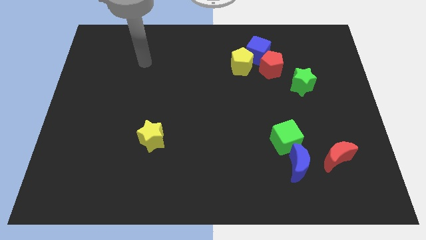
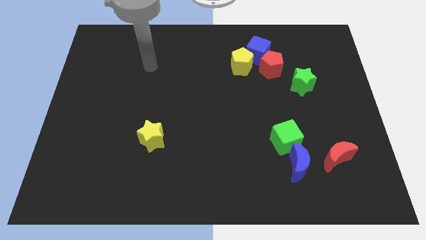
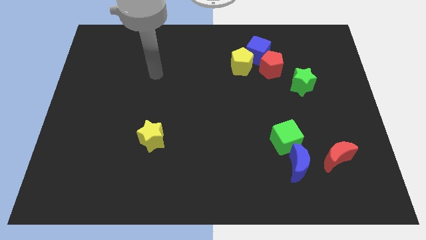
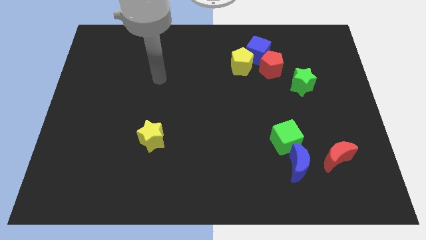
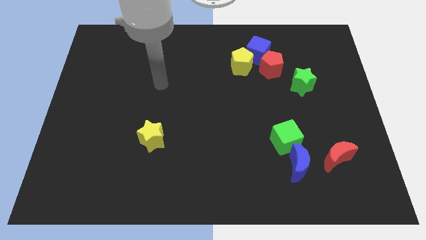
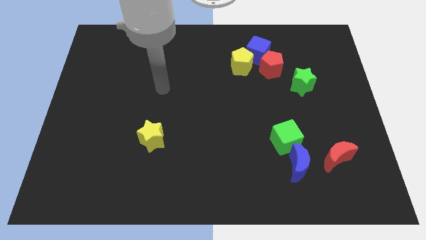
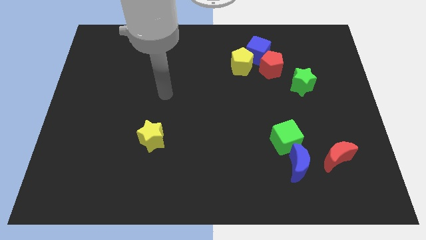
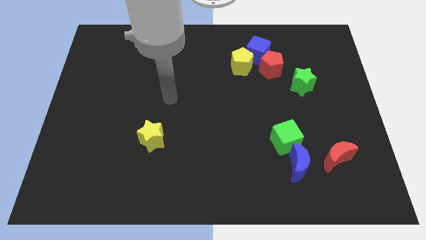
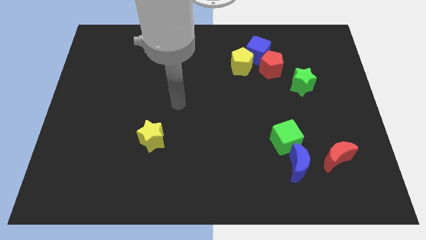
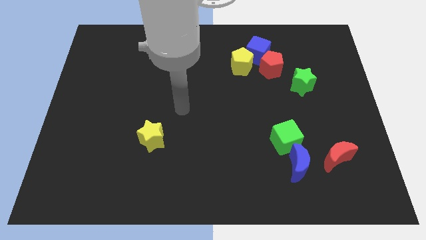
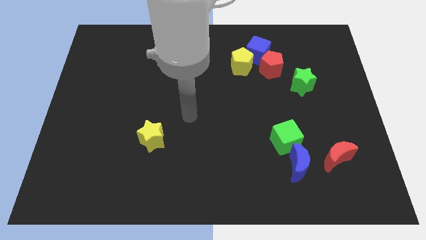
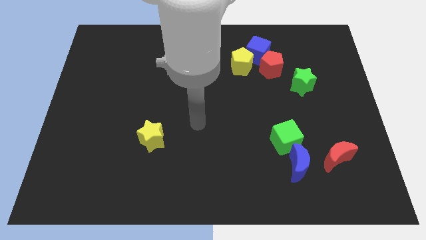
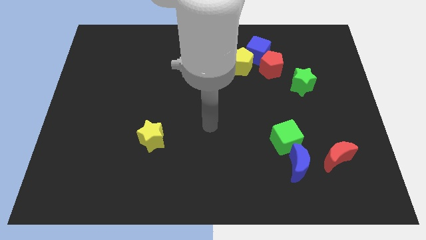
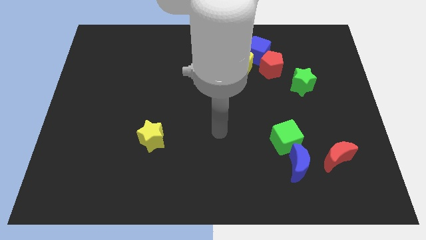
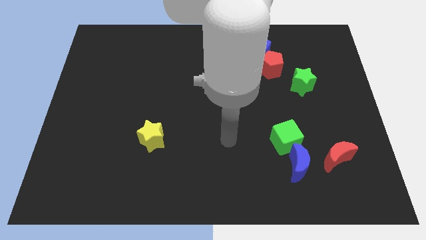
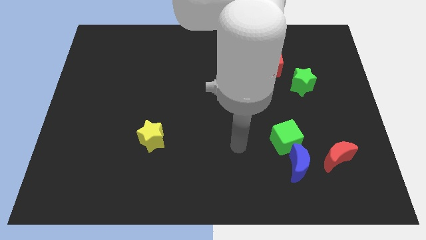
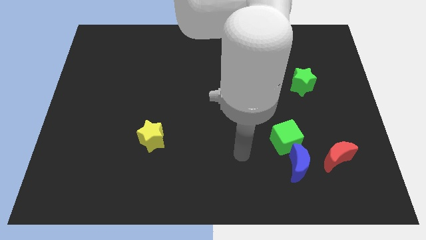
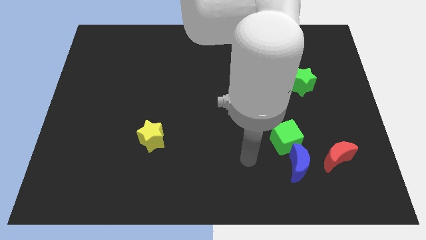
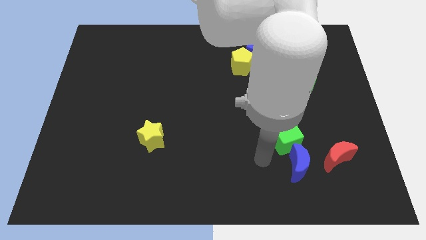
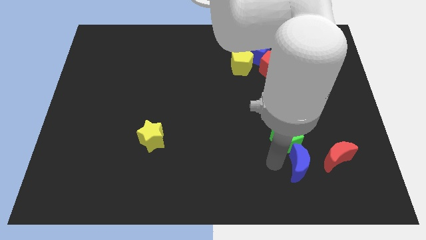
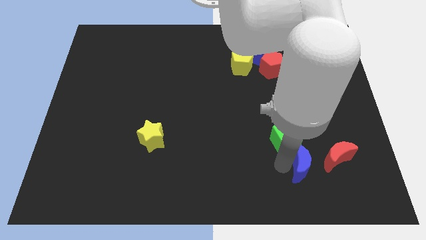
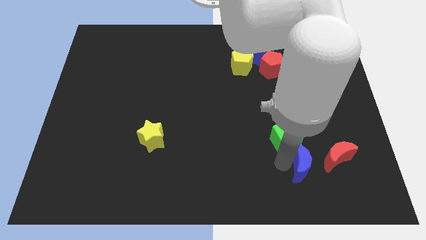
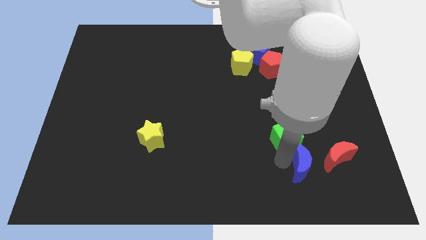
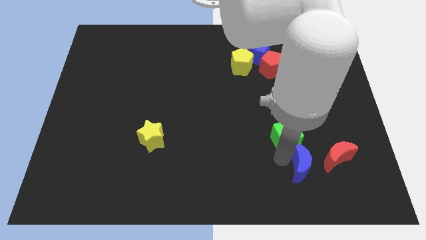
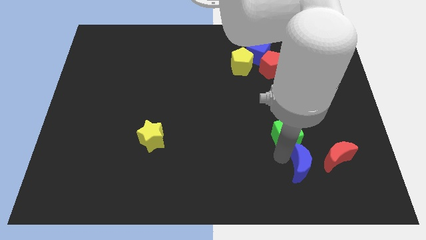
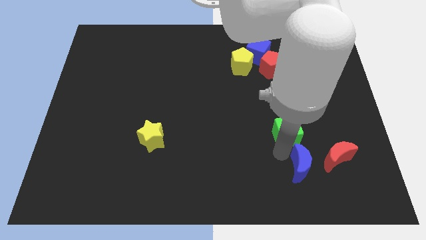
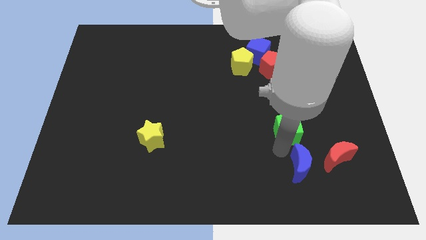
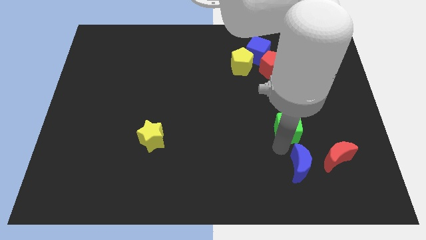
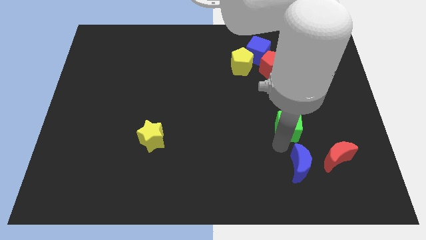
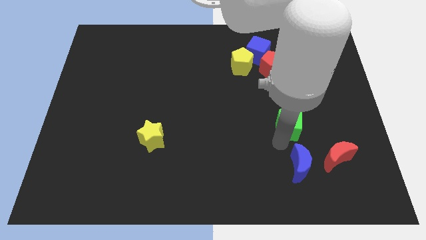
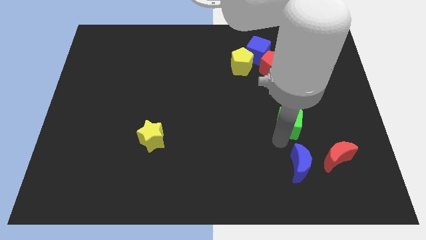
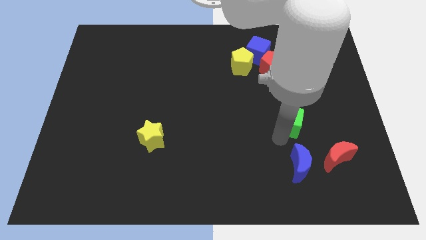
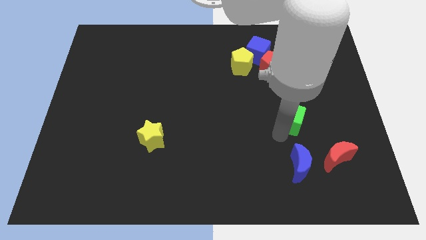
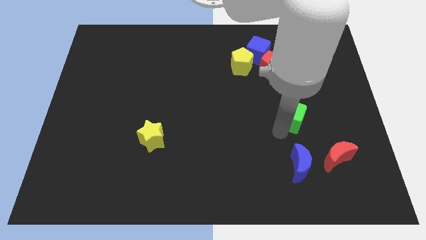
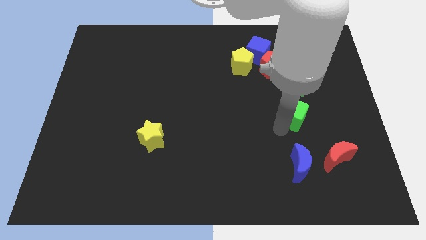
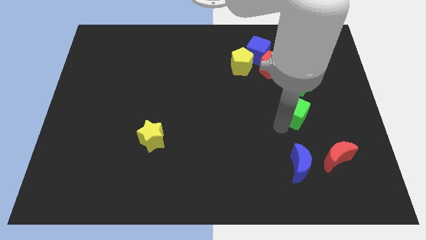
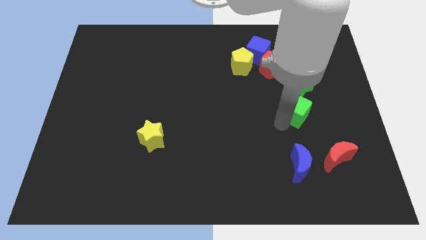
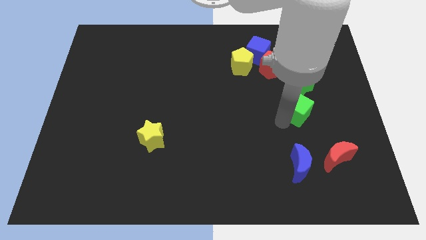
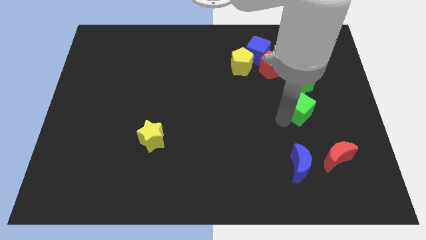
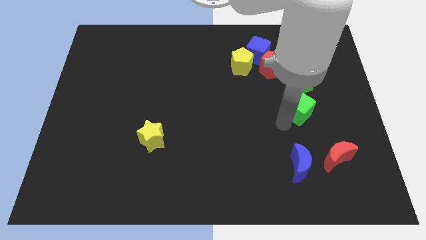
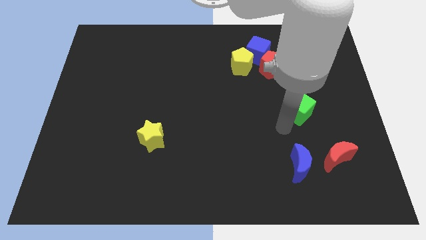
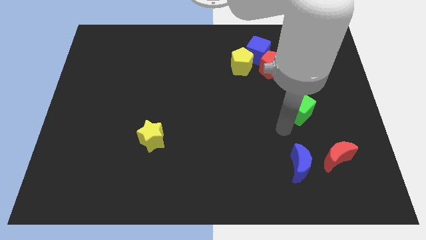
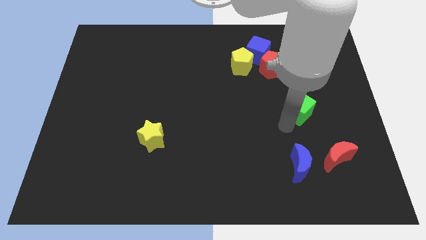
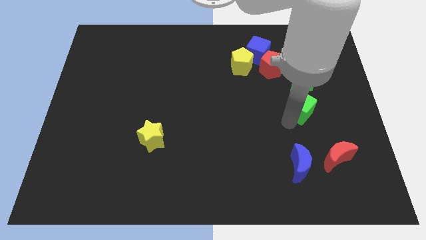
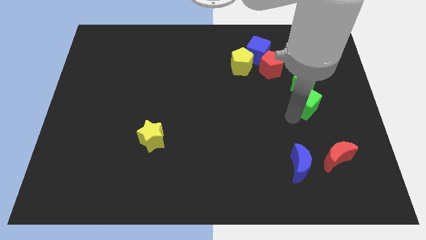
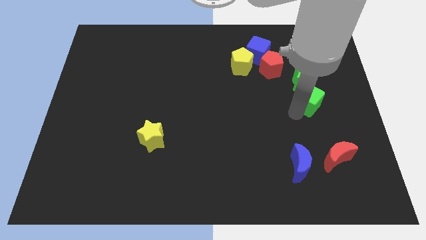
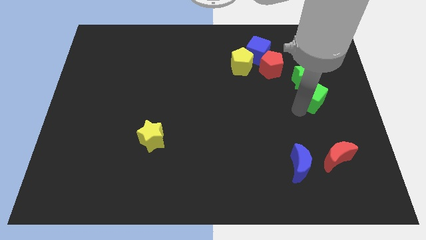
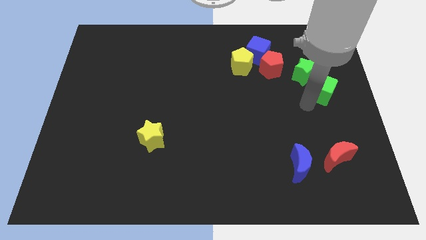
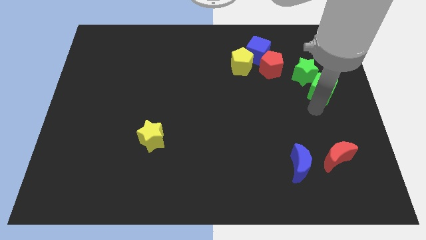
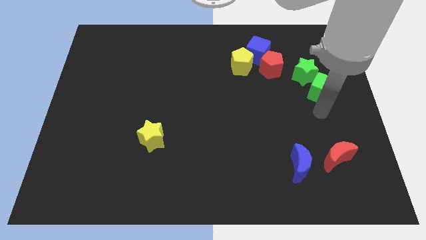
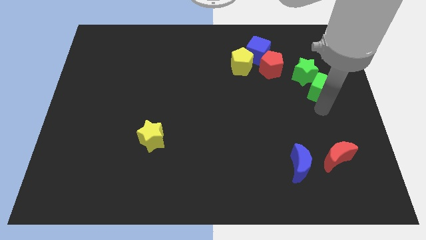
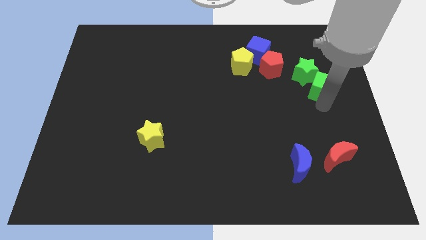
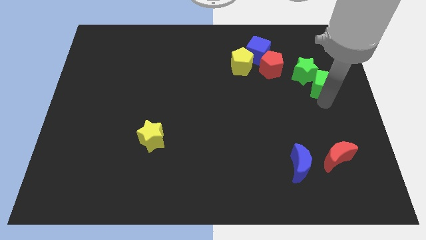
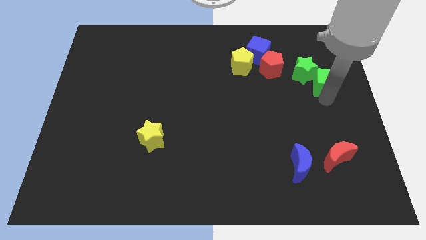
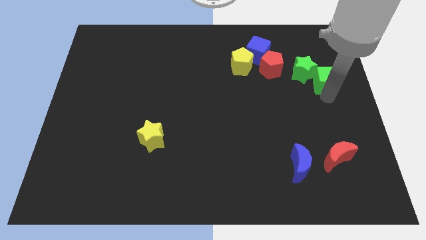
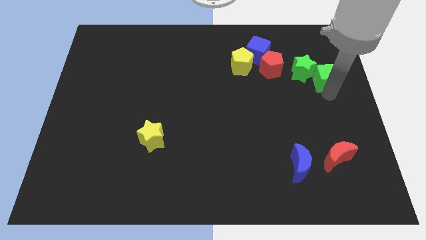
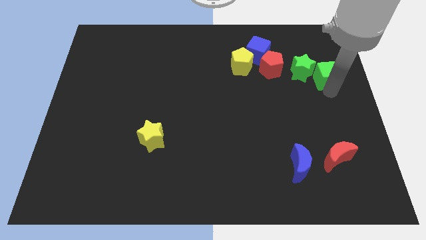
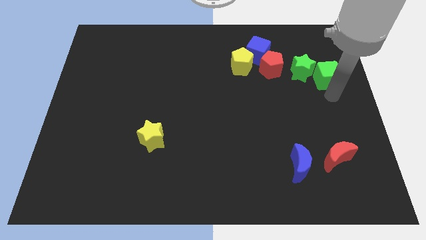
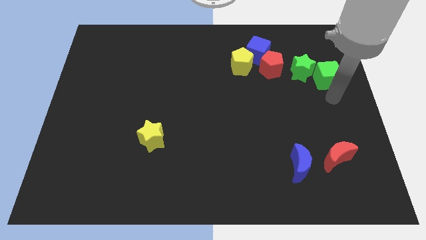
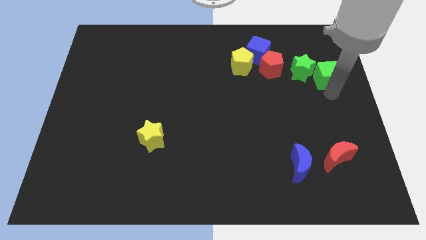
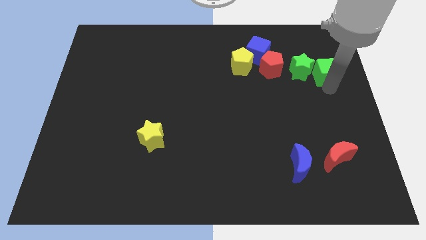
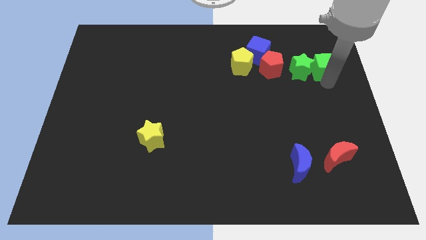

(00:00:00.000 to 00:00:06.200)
move the green cube diagonally up and to the right of the green star
